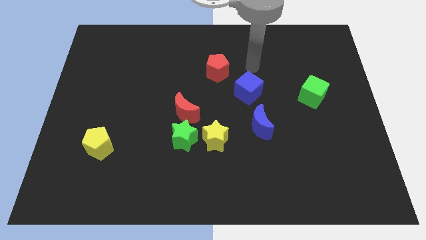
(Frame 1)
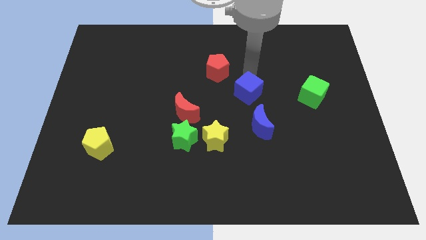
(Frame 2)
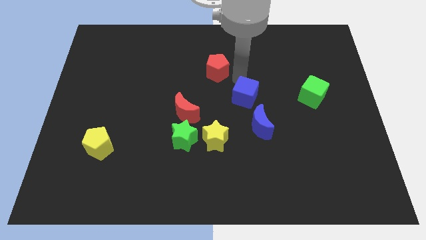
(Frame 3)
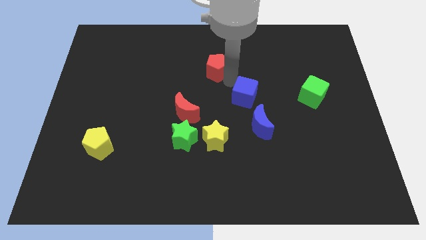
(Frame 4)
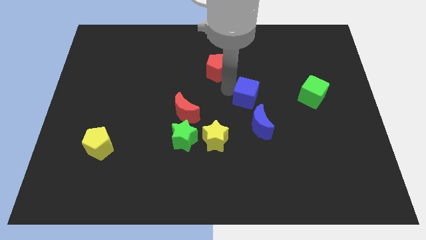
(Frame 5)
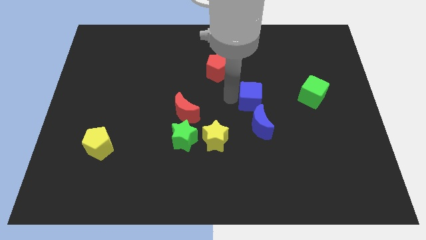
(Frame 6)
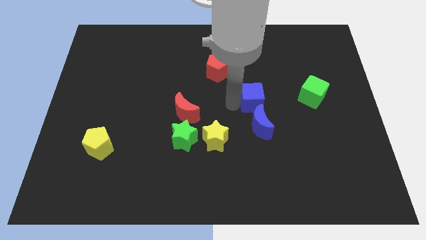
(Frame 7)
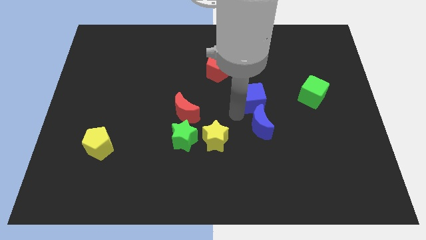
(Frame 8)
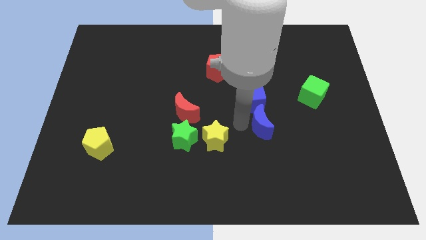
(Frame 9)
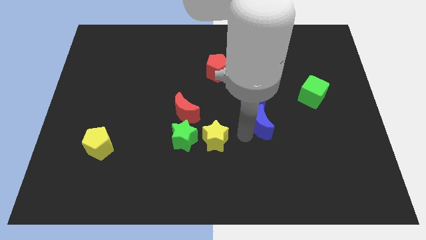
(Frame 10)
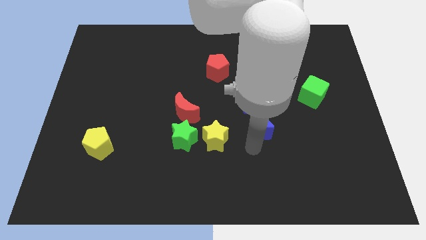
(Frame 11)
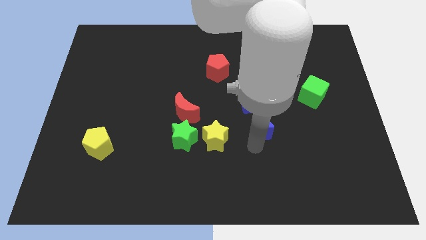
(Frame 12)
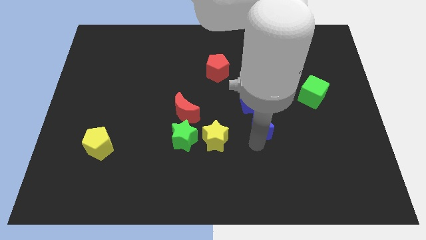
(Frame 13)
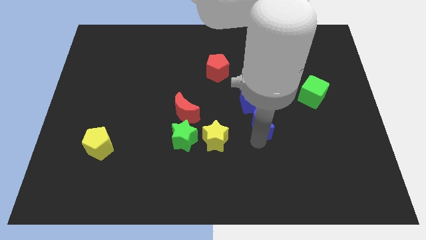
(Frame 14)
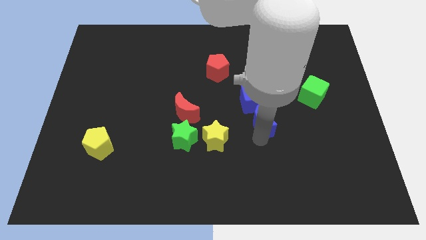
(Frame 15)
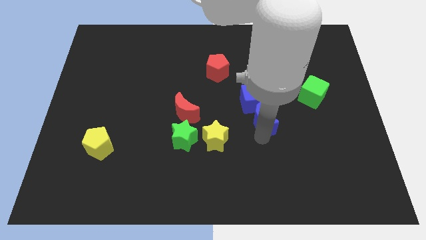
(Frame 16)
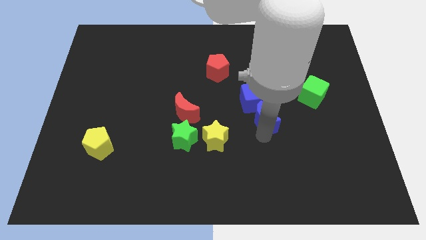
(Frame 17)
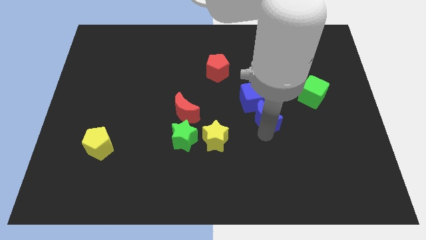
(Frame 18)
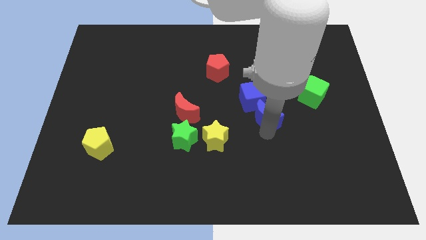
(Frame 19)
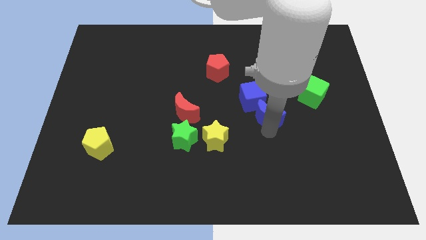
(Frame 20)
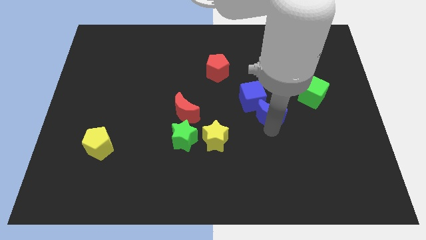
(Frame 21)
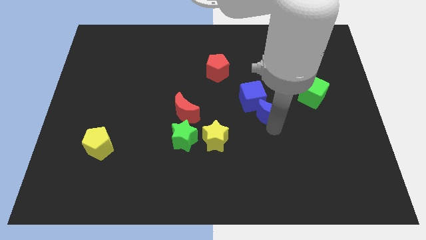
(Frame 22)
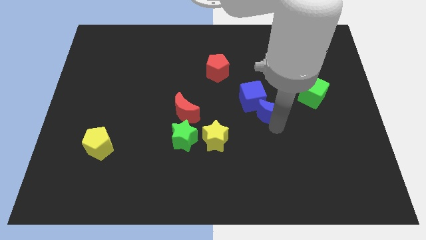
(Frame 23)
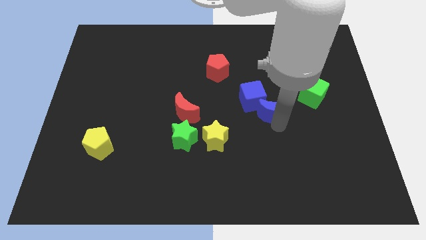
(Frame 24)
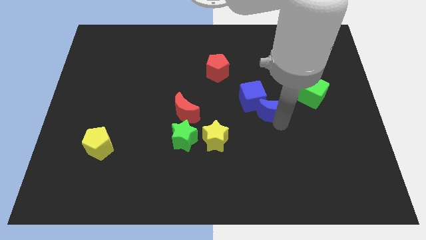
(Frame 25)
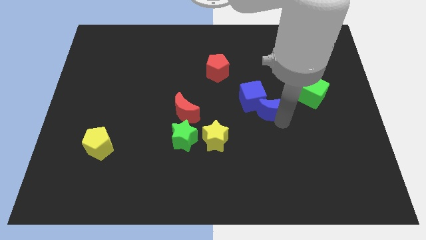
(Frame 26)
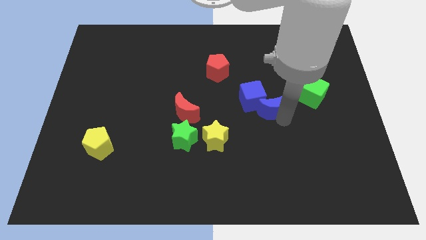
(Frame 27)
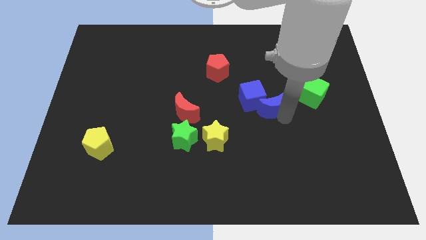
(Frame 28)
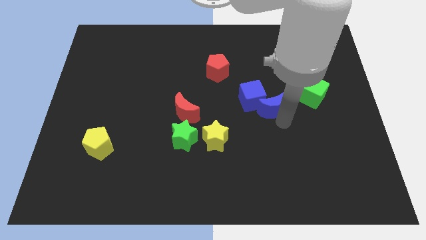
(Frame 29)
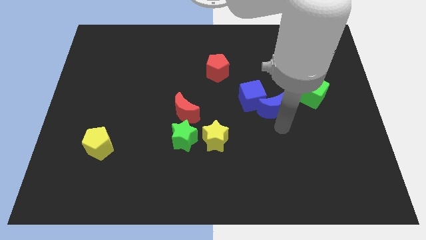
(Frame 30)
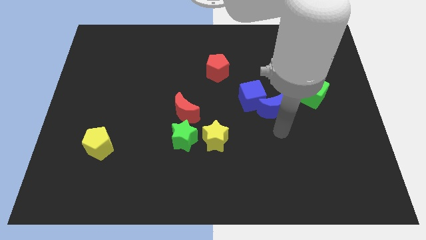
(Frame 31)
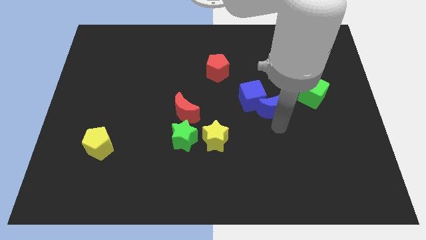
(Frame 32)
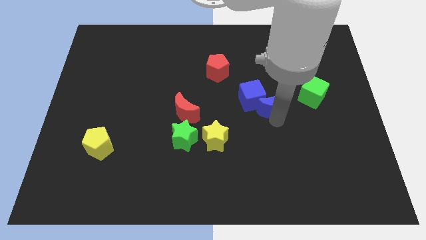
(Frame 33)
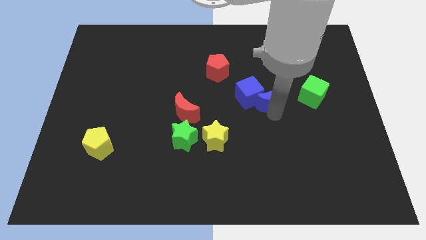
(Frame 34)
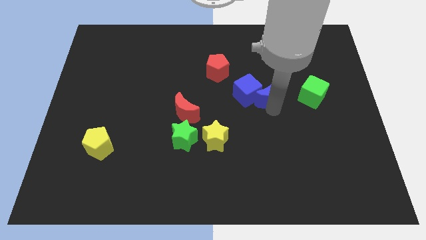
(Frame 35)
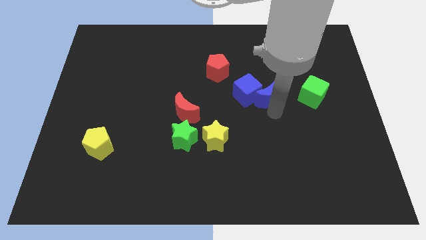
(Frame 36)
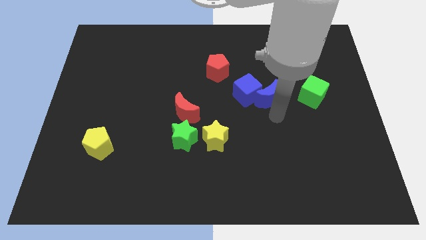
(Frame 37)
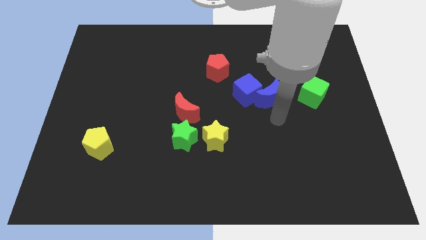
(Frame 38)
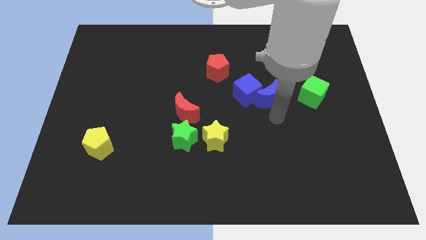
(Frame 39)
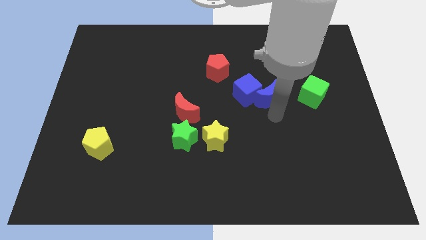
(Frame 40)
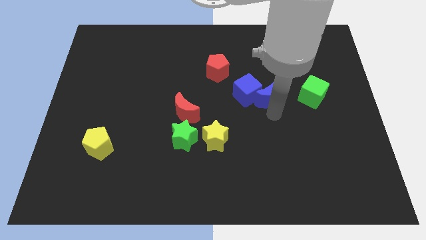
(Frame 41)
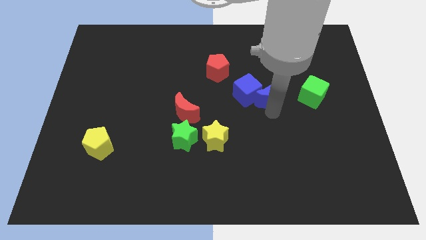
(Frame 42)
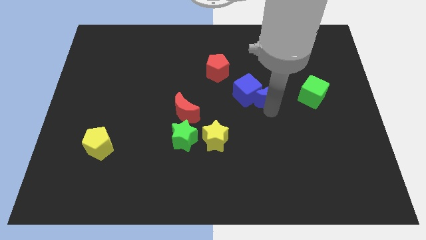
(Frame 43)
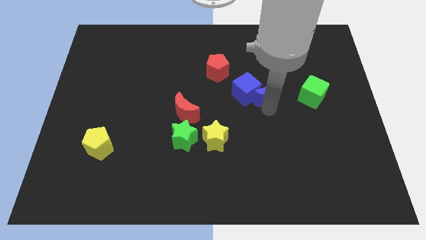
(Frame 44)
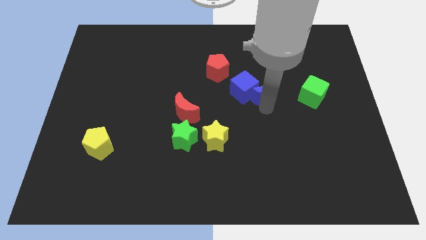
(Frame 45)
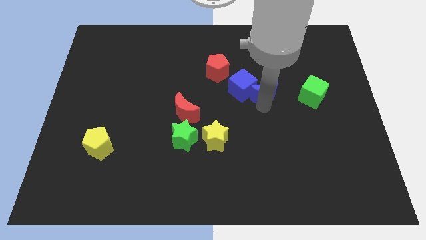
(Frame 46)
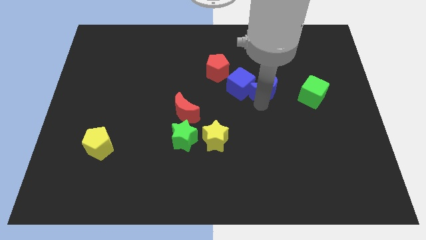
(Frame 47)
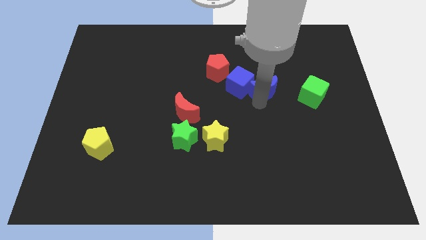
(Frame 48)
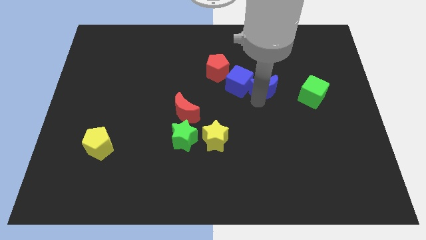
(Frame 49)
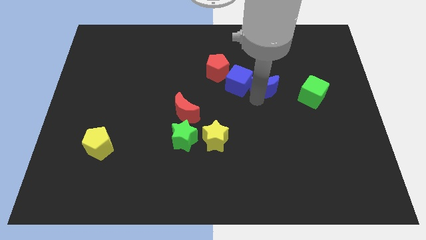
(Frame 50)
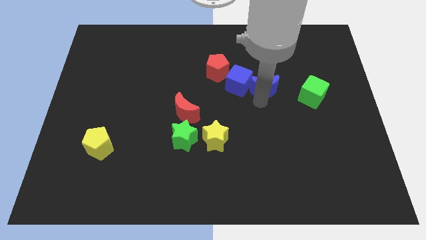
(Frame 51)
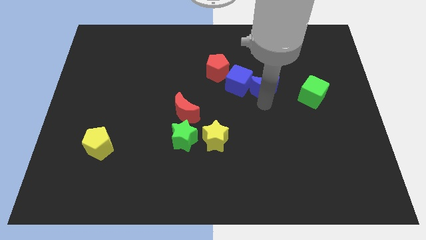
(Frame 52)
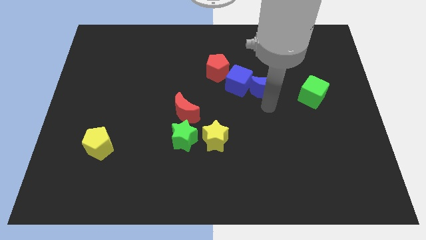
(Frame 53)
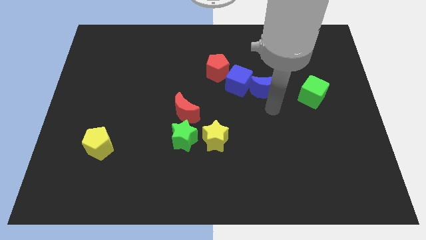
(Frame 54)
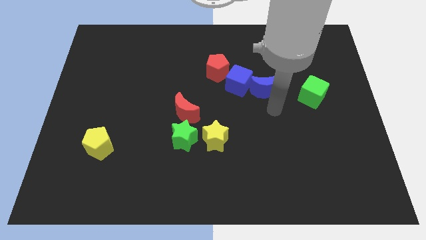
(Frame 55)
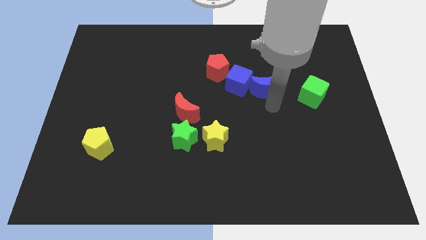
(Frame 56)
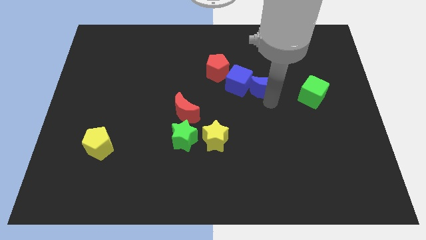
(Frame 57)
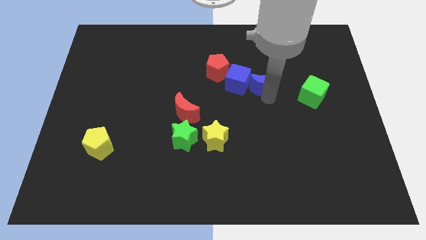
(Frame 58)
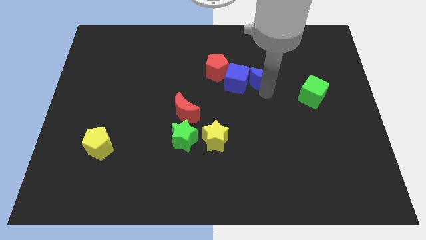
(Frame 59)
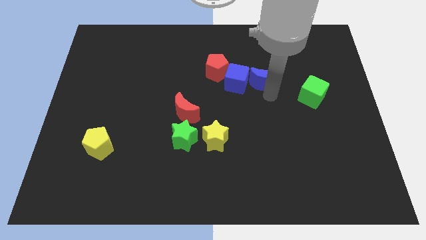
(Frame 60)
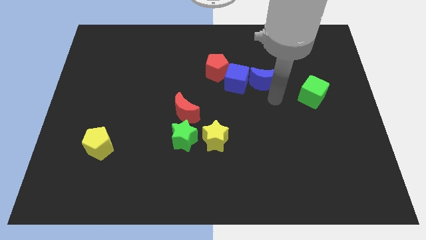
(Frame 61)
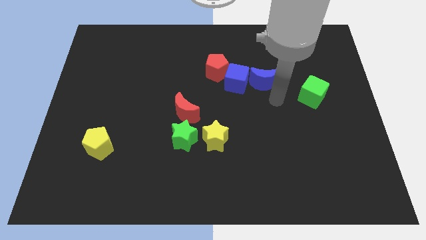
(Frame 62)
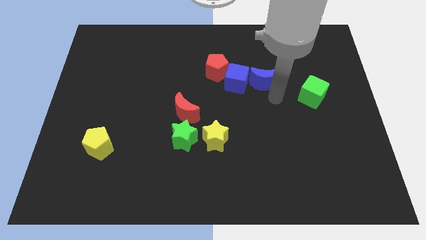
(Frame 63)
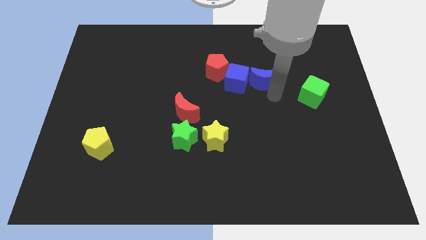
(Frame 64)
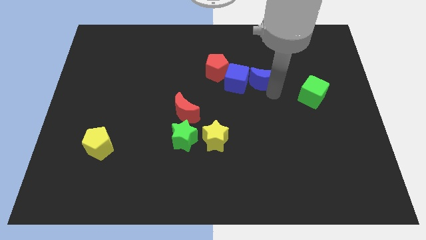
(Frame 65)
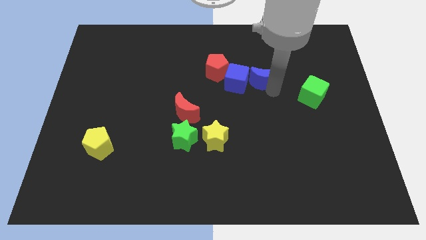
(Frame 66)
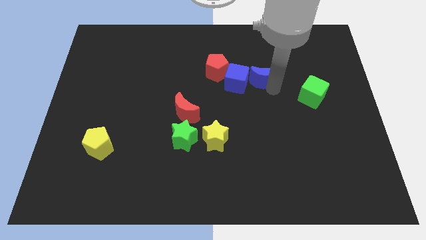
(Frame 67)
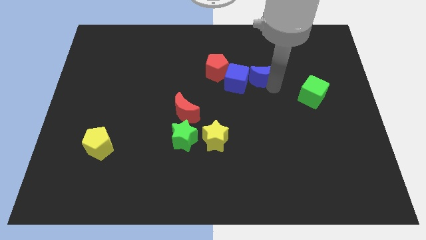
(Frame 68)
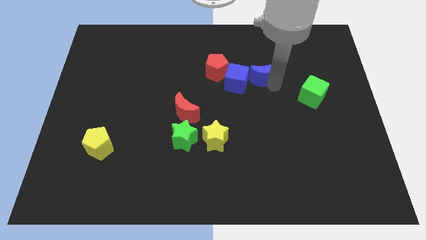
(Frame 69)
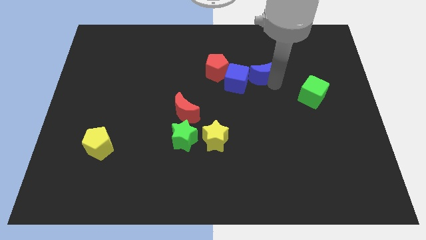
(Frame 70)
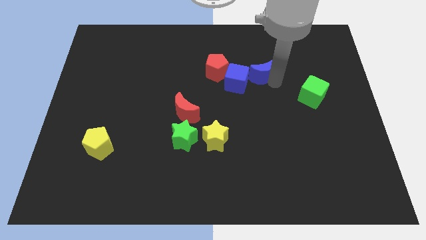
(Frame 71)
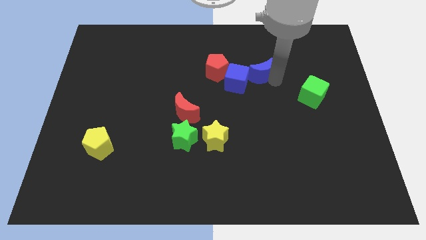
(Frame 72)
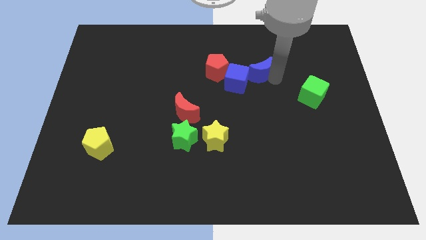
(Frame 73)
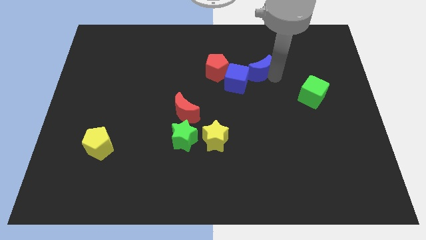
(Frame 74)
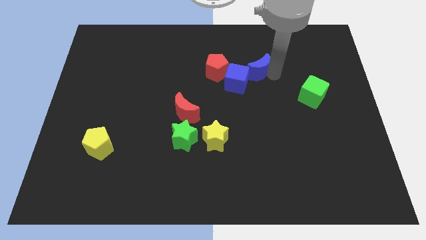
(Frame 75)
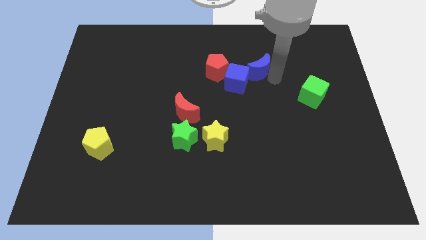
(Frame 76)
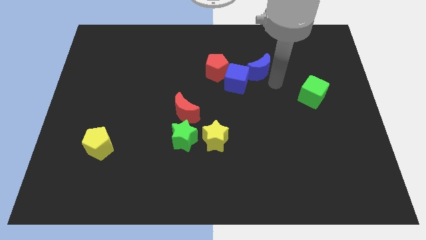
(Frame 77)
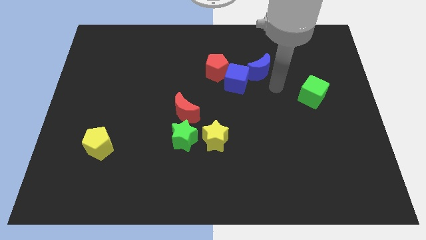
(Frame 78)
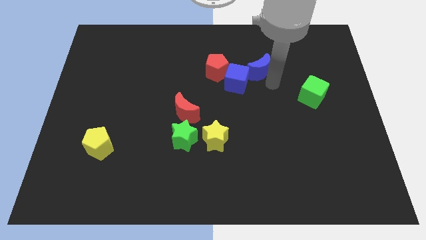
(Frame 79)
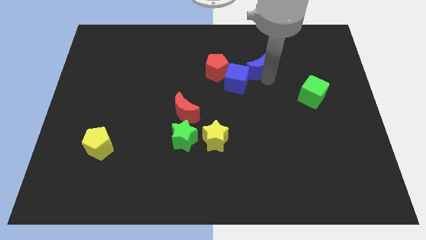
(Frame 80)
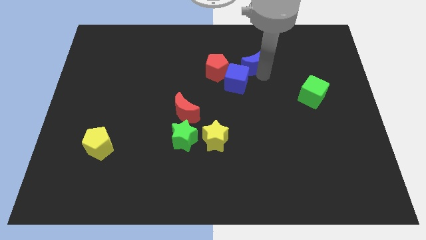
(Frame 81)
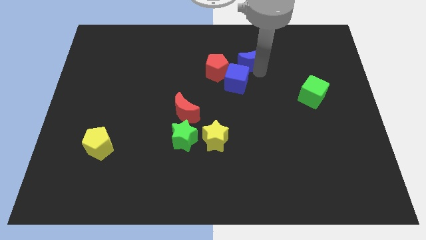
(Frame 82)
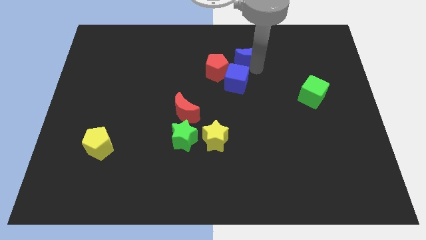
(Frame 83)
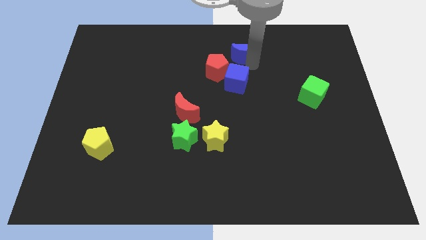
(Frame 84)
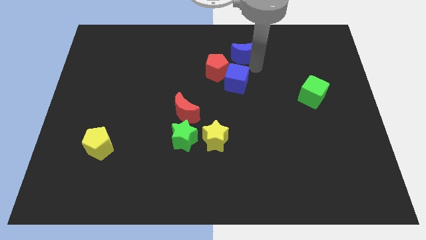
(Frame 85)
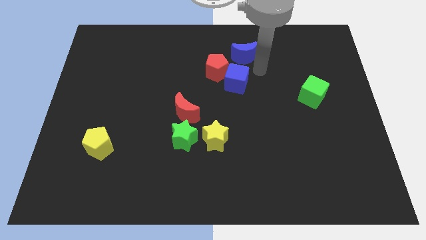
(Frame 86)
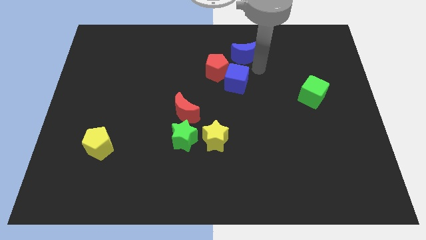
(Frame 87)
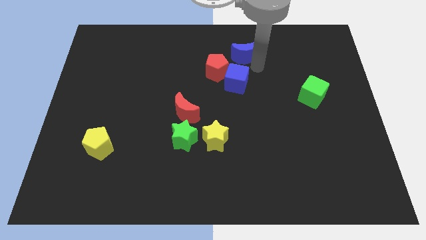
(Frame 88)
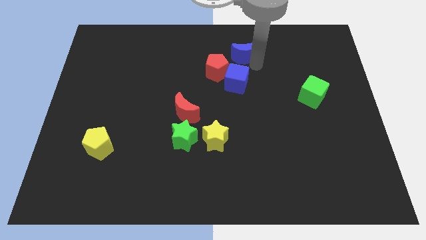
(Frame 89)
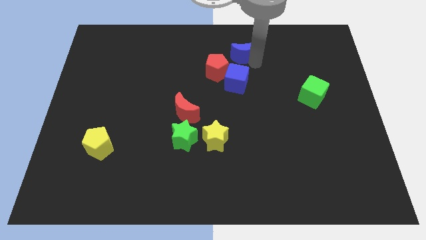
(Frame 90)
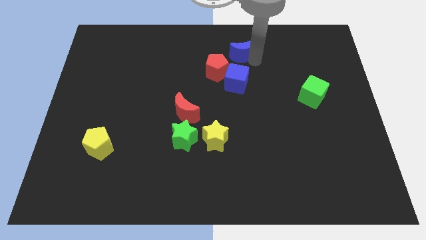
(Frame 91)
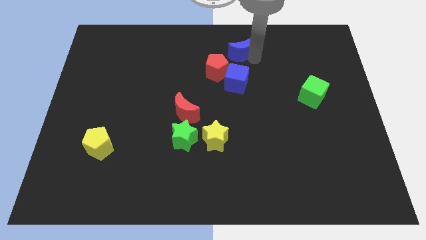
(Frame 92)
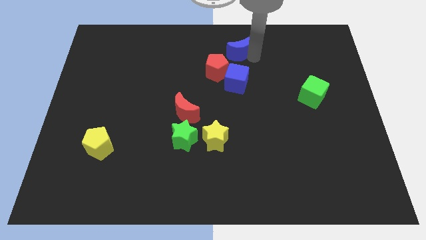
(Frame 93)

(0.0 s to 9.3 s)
put the blue moon to the top
